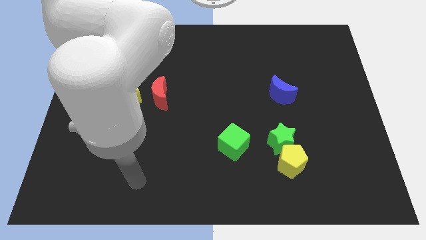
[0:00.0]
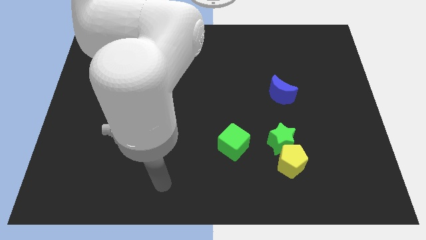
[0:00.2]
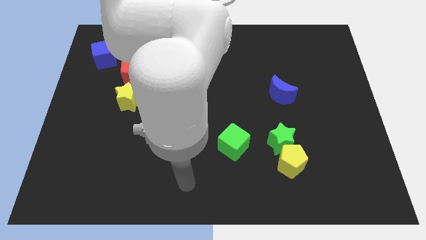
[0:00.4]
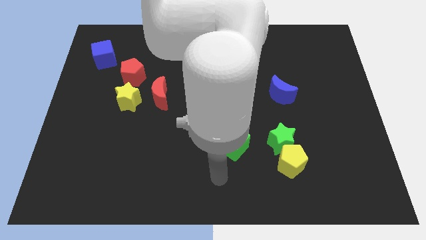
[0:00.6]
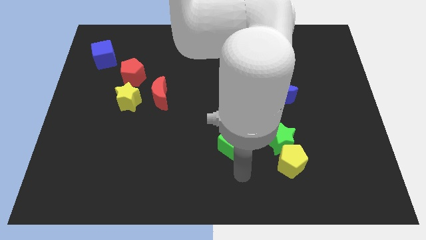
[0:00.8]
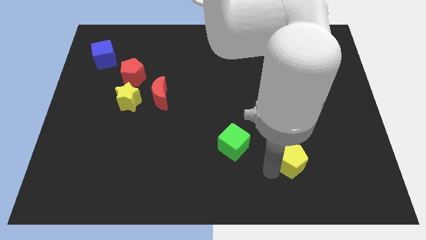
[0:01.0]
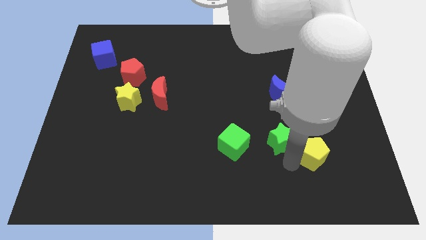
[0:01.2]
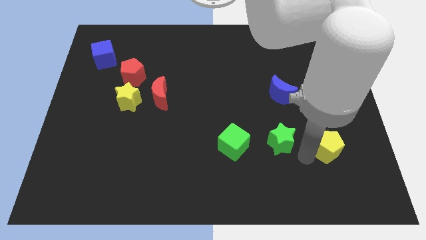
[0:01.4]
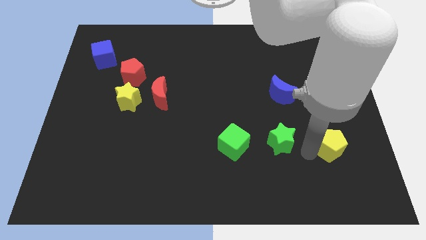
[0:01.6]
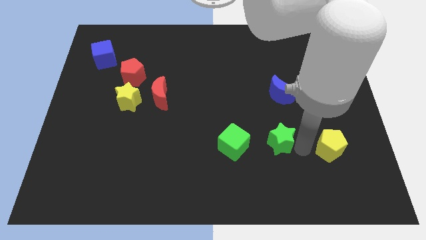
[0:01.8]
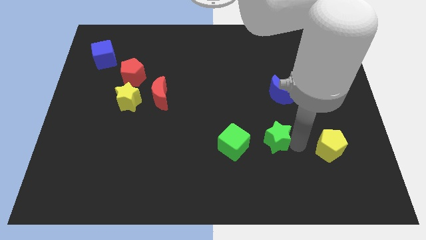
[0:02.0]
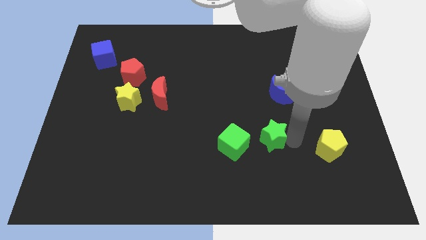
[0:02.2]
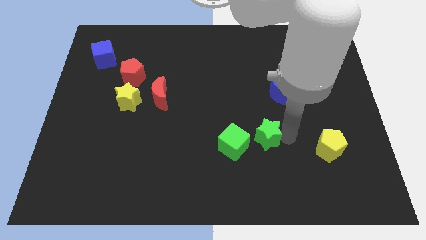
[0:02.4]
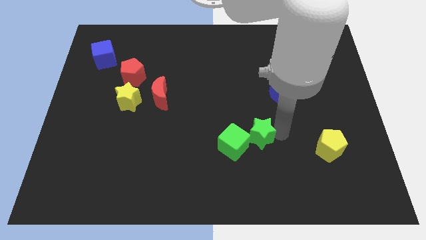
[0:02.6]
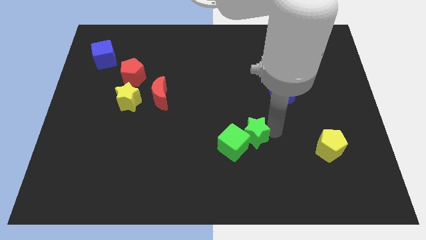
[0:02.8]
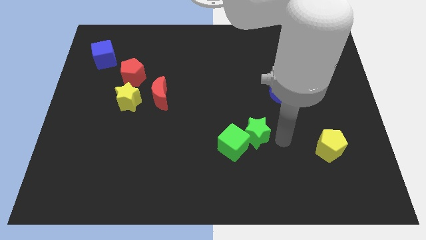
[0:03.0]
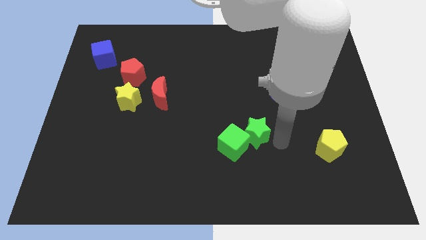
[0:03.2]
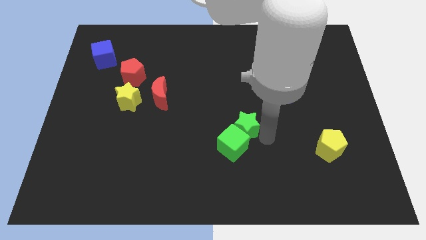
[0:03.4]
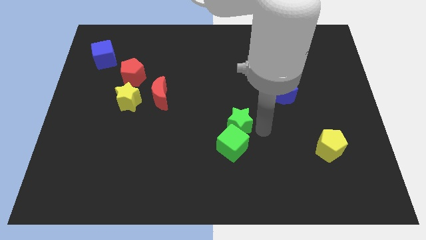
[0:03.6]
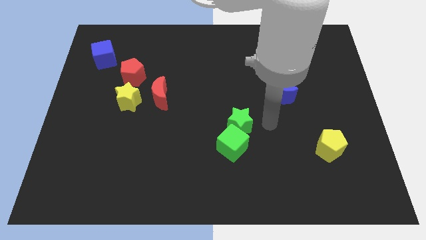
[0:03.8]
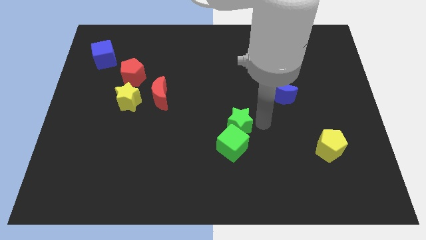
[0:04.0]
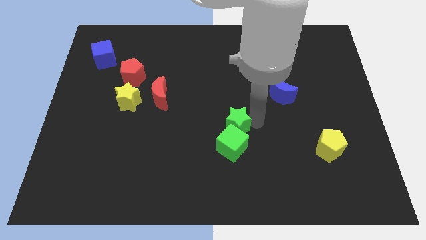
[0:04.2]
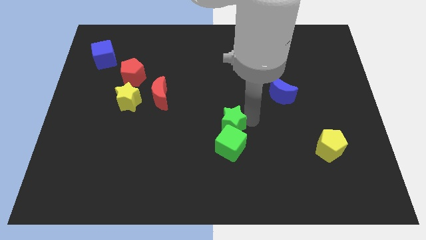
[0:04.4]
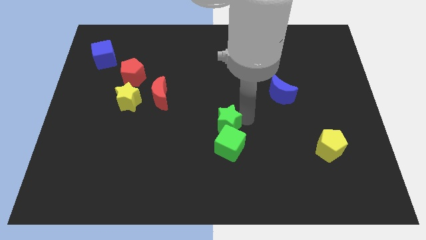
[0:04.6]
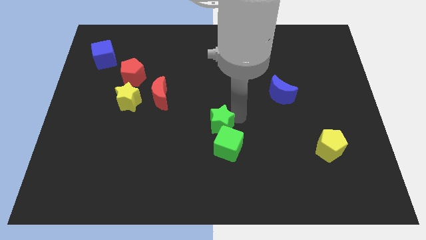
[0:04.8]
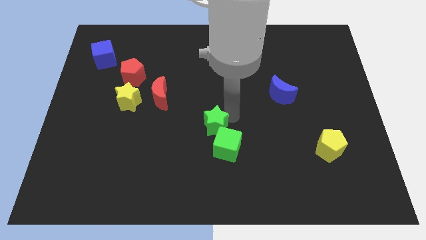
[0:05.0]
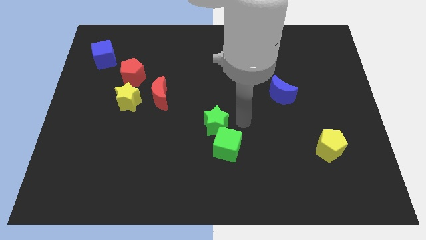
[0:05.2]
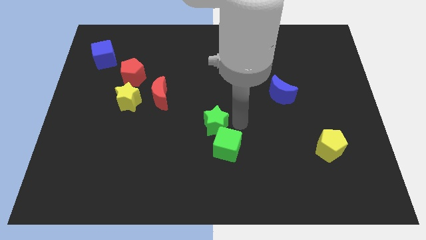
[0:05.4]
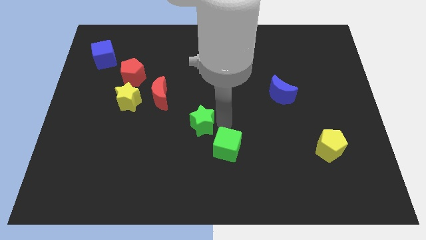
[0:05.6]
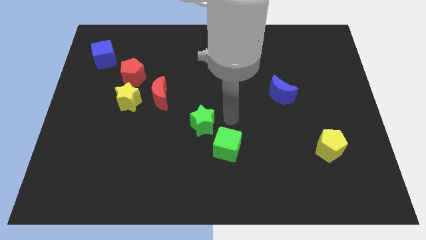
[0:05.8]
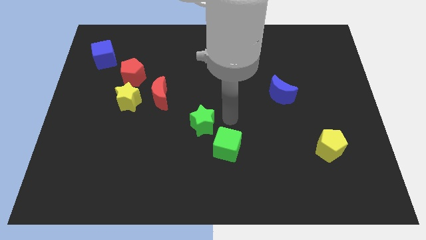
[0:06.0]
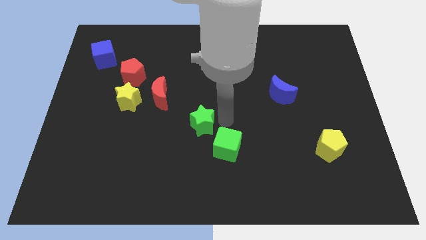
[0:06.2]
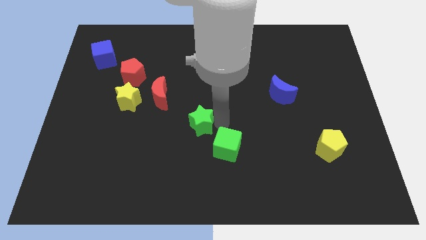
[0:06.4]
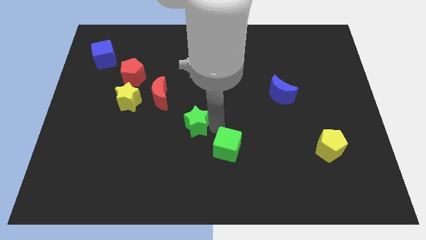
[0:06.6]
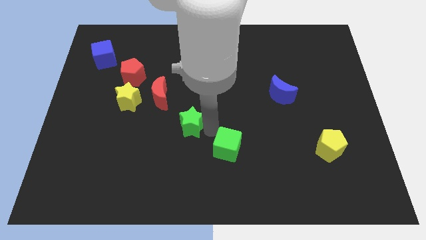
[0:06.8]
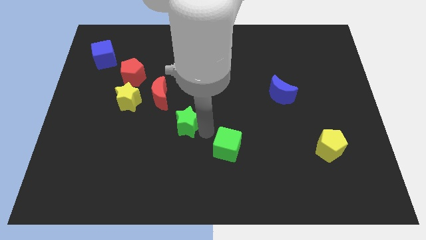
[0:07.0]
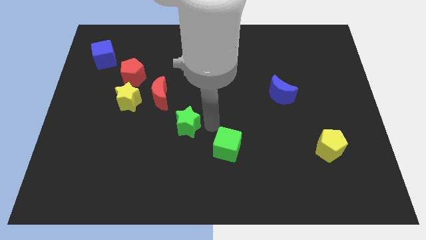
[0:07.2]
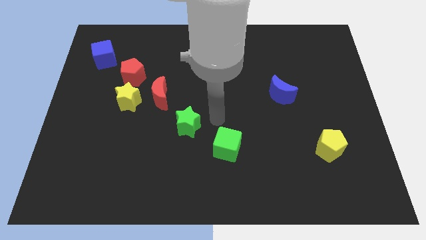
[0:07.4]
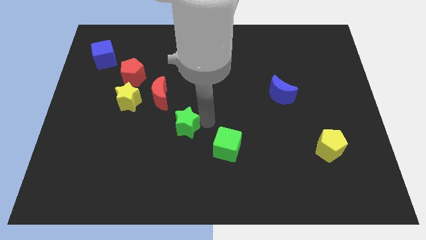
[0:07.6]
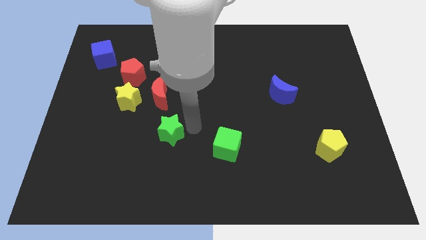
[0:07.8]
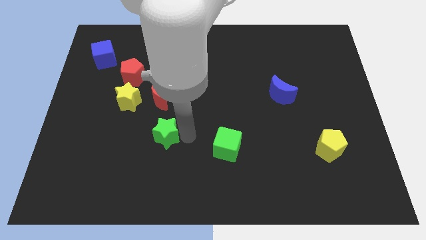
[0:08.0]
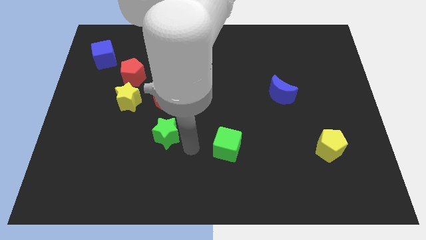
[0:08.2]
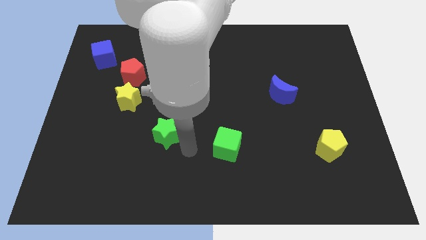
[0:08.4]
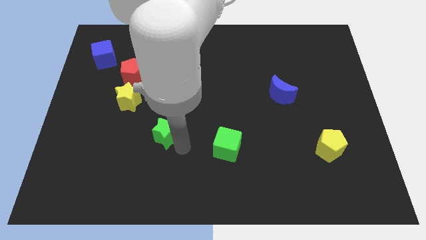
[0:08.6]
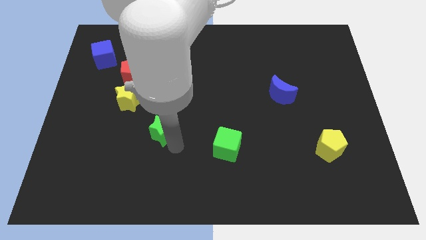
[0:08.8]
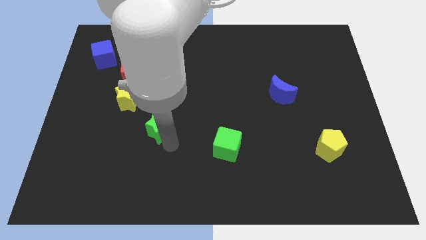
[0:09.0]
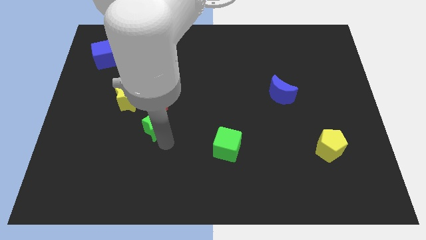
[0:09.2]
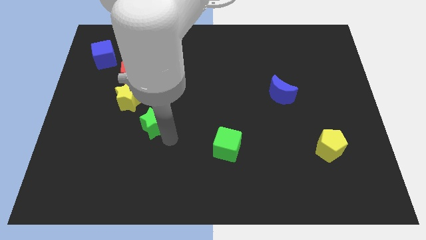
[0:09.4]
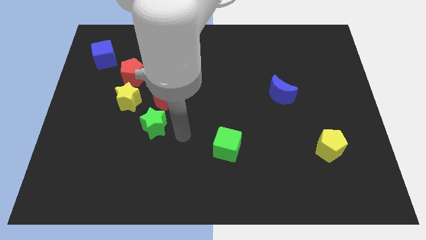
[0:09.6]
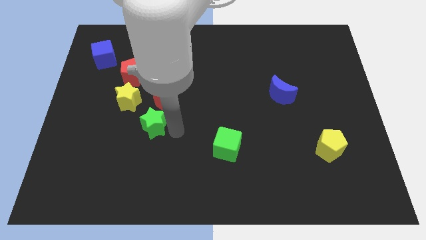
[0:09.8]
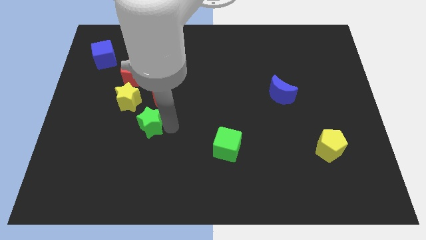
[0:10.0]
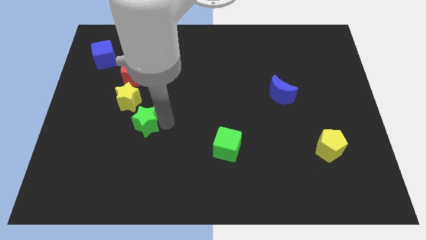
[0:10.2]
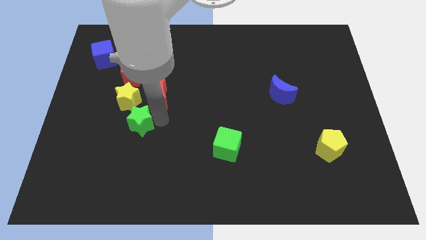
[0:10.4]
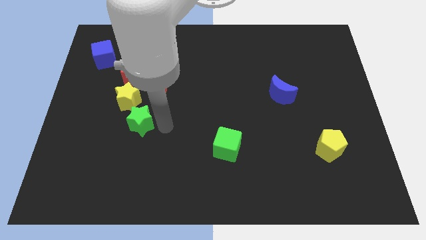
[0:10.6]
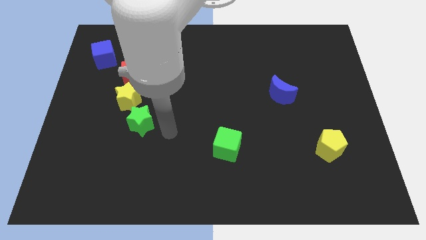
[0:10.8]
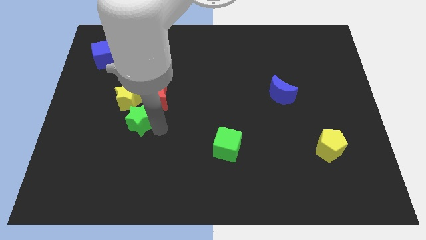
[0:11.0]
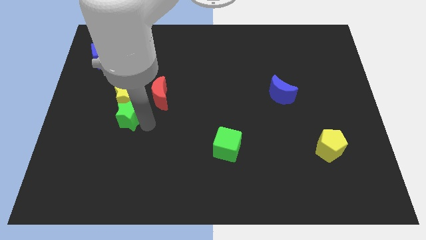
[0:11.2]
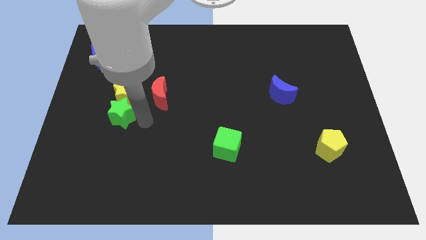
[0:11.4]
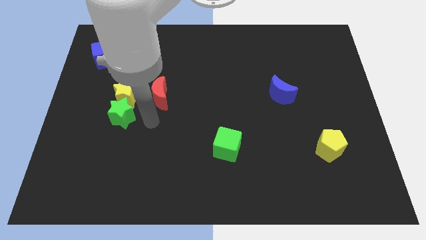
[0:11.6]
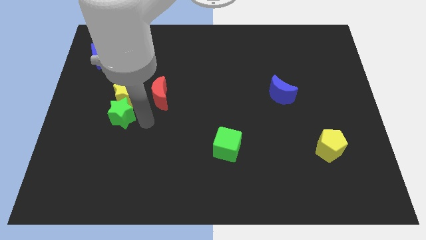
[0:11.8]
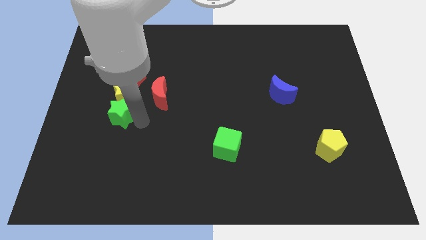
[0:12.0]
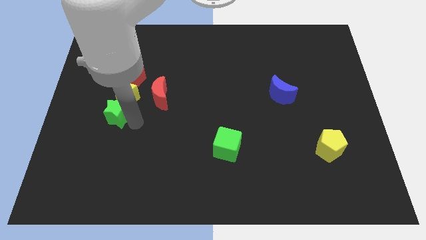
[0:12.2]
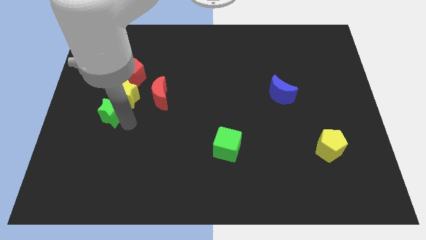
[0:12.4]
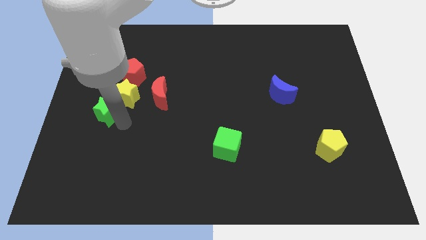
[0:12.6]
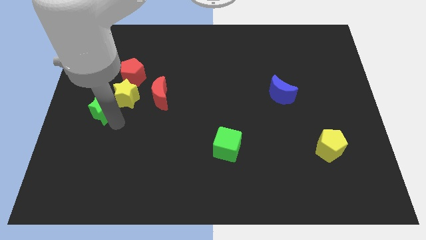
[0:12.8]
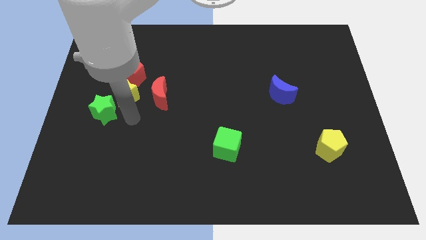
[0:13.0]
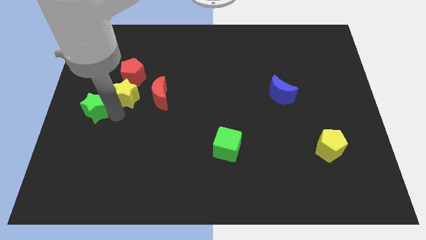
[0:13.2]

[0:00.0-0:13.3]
slide the green star to the left side

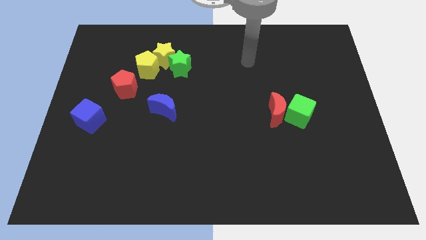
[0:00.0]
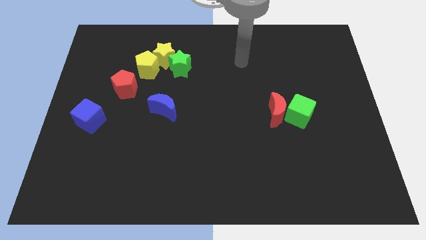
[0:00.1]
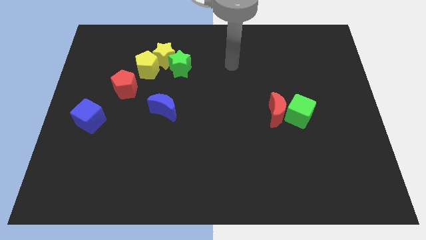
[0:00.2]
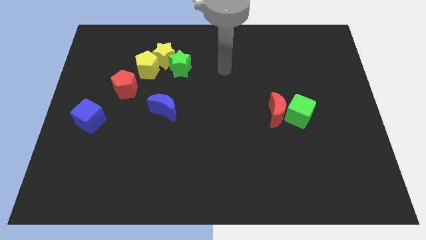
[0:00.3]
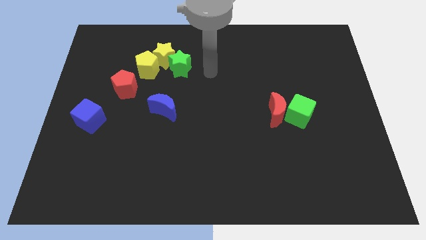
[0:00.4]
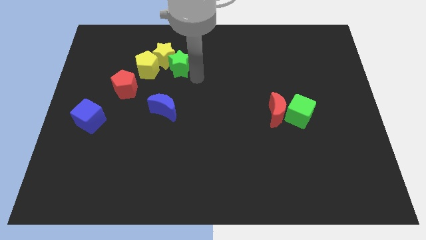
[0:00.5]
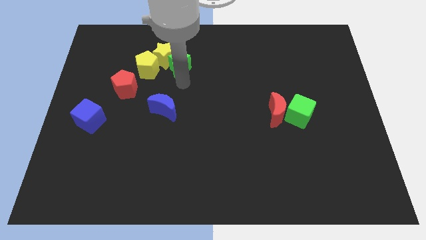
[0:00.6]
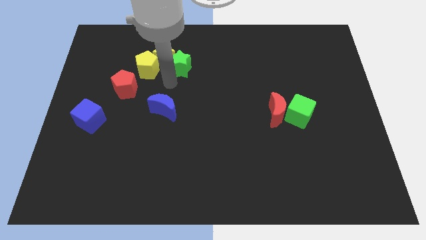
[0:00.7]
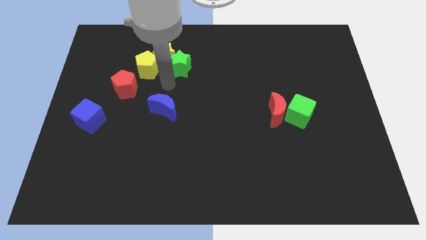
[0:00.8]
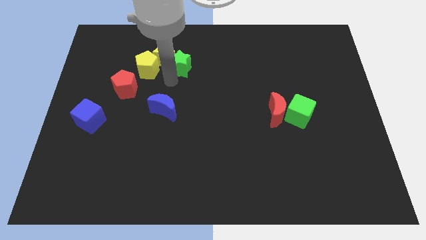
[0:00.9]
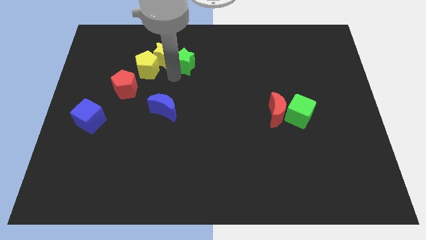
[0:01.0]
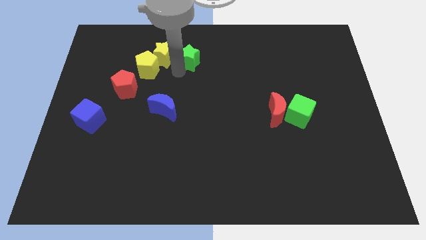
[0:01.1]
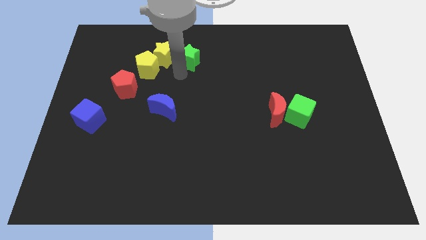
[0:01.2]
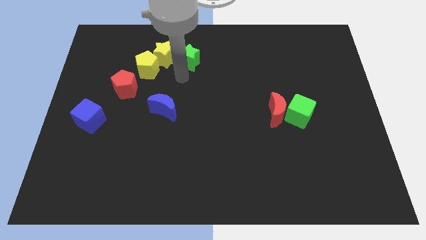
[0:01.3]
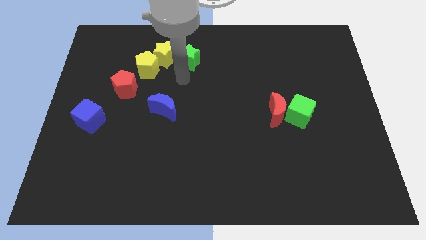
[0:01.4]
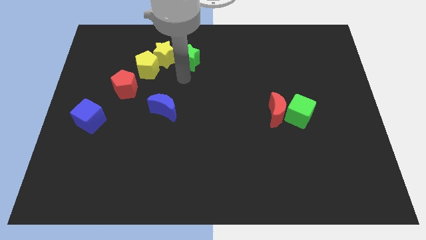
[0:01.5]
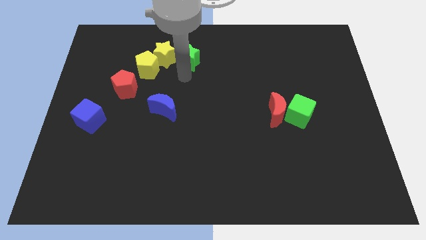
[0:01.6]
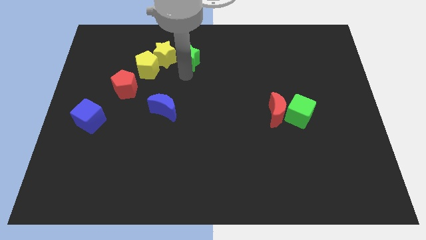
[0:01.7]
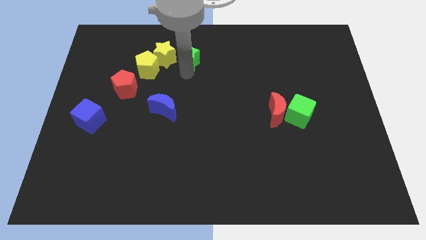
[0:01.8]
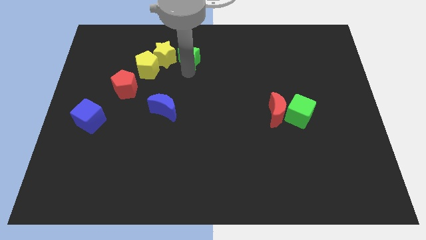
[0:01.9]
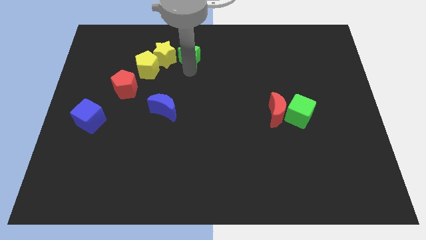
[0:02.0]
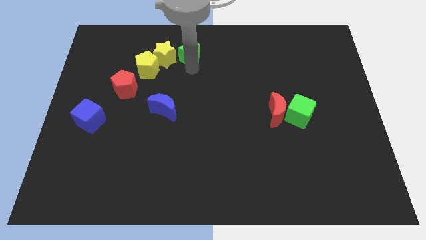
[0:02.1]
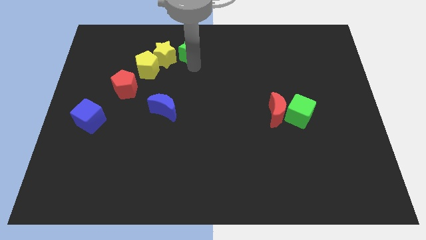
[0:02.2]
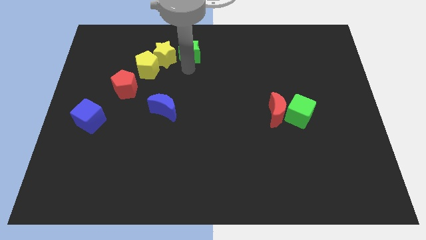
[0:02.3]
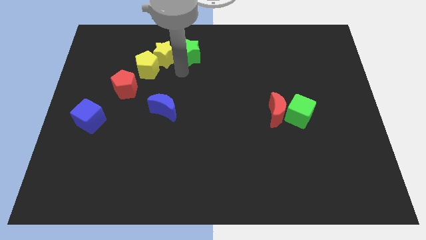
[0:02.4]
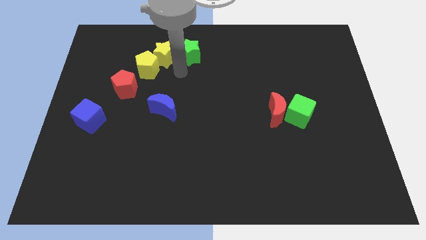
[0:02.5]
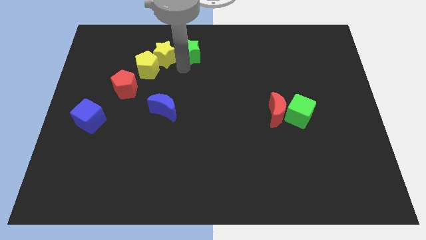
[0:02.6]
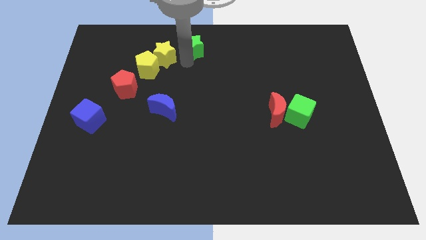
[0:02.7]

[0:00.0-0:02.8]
move the green star to the towards your base
